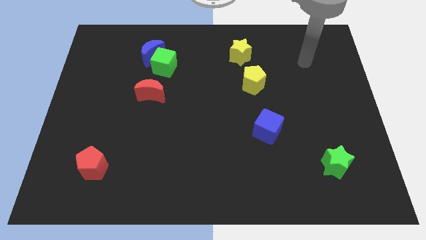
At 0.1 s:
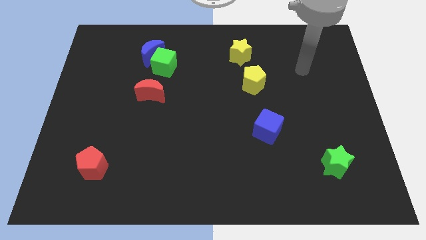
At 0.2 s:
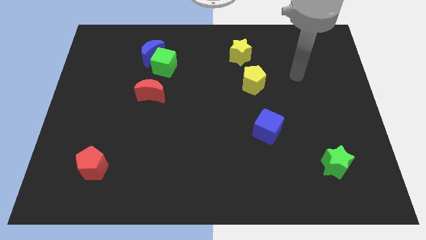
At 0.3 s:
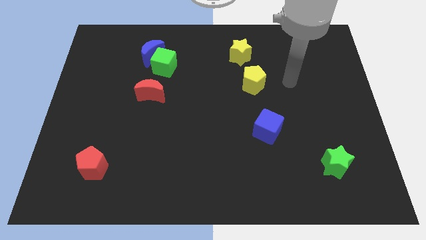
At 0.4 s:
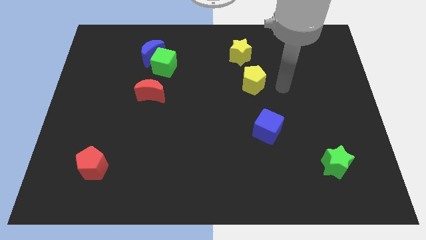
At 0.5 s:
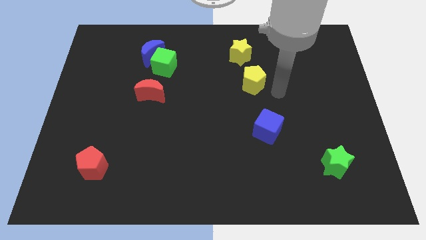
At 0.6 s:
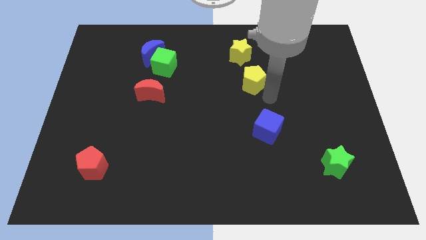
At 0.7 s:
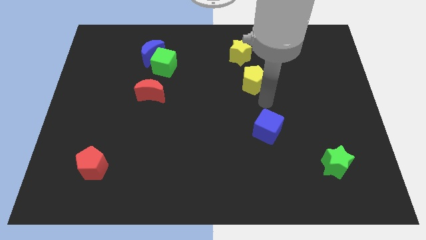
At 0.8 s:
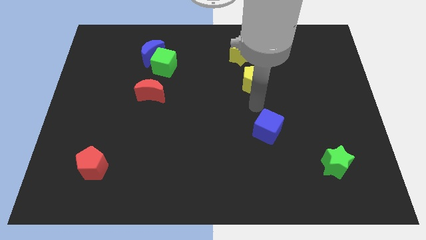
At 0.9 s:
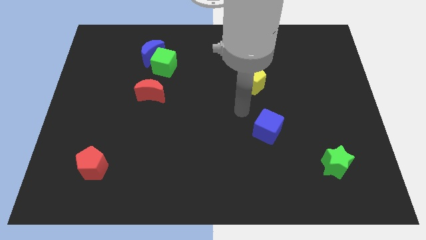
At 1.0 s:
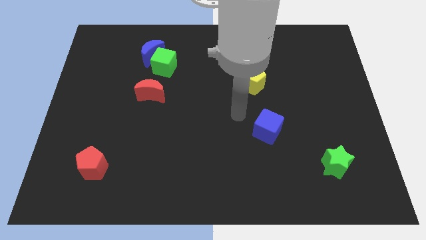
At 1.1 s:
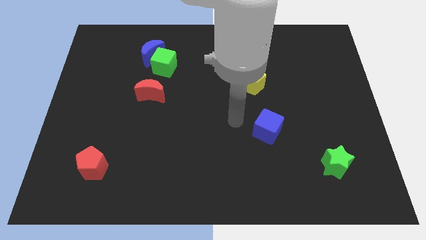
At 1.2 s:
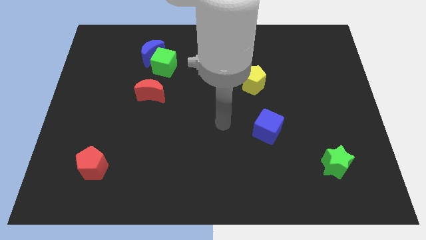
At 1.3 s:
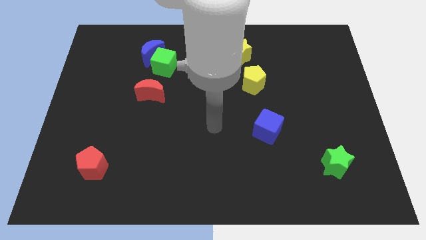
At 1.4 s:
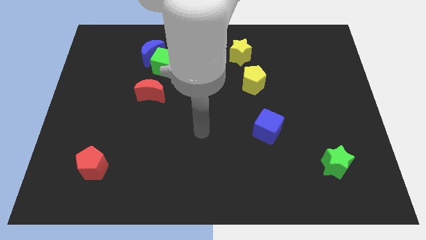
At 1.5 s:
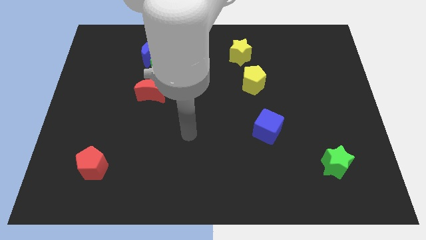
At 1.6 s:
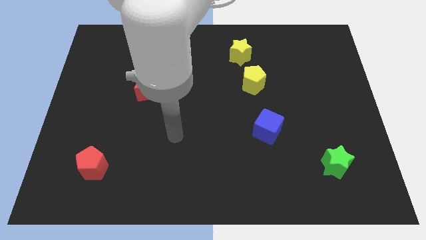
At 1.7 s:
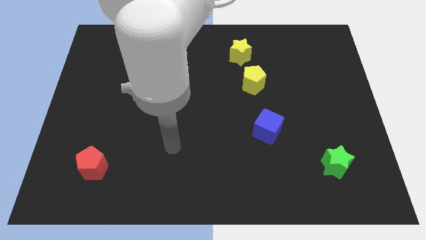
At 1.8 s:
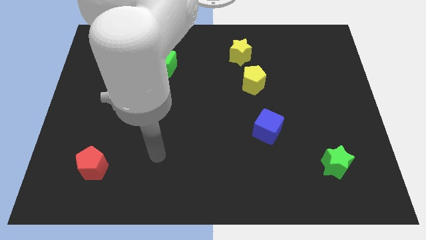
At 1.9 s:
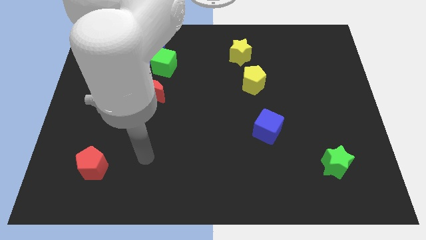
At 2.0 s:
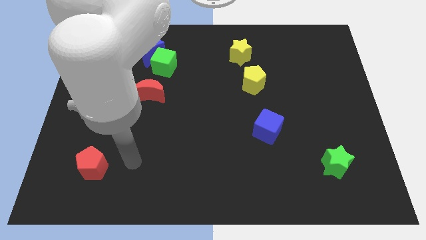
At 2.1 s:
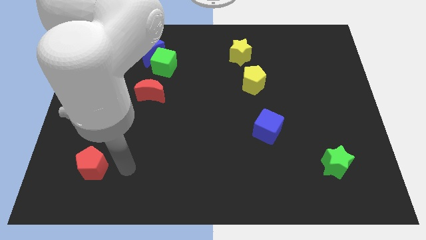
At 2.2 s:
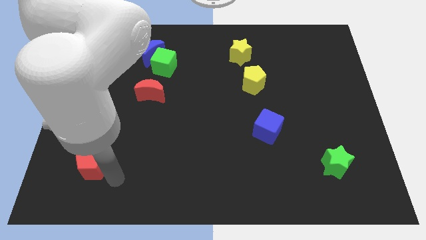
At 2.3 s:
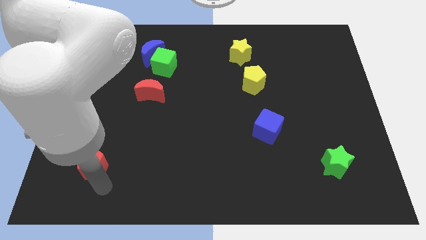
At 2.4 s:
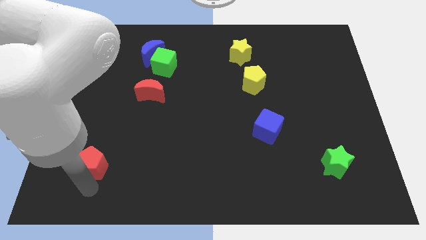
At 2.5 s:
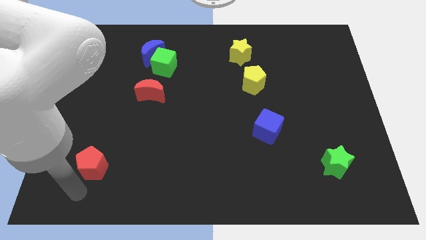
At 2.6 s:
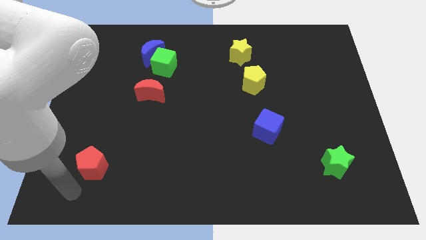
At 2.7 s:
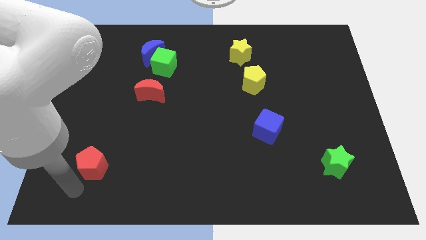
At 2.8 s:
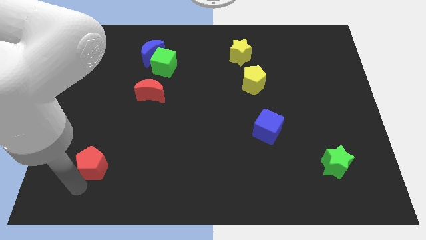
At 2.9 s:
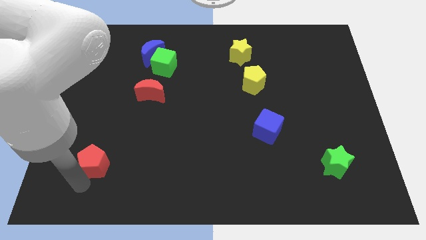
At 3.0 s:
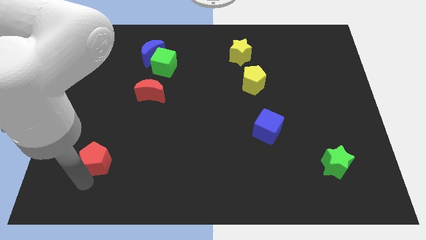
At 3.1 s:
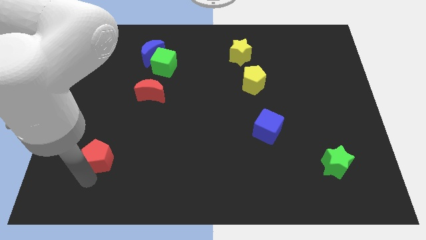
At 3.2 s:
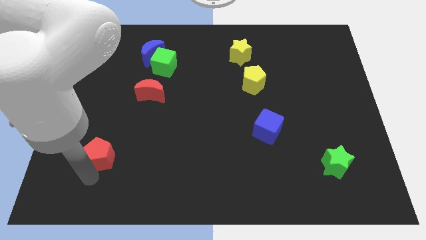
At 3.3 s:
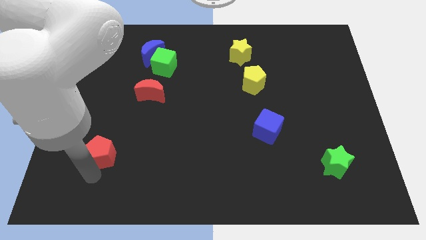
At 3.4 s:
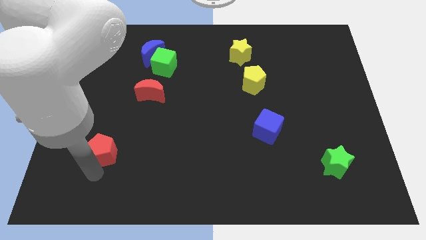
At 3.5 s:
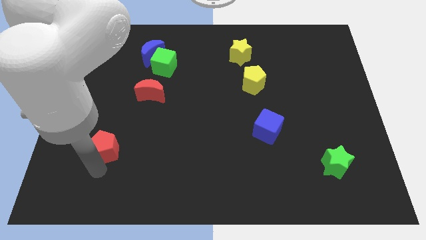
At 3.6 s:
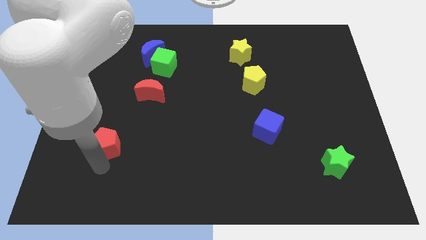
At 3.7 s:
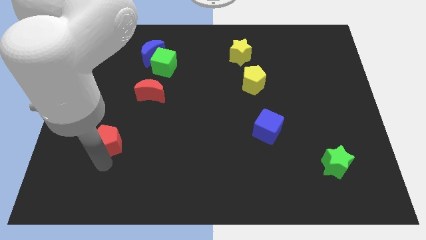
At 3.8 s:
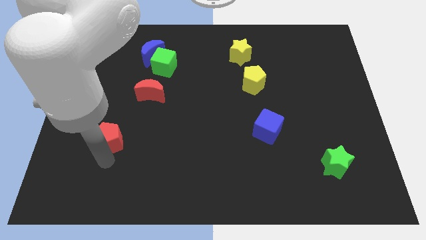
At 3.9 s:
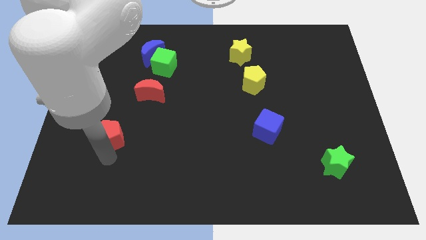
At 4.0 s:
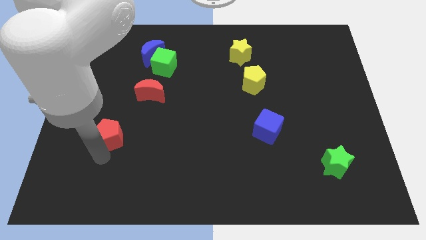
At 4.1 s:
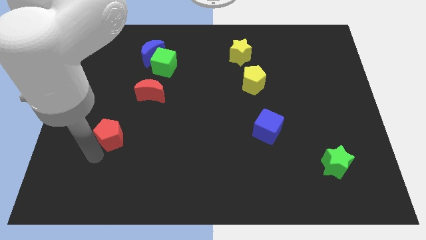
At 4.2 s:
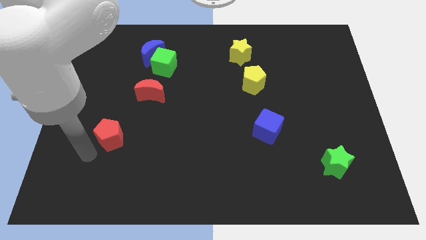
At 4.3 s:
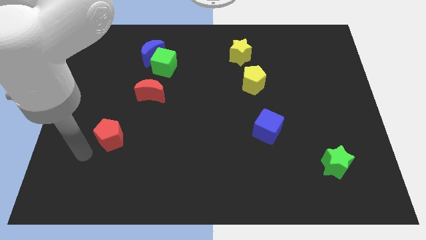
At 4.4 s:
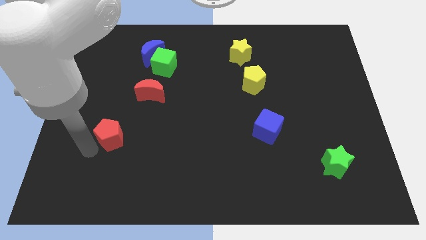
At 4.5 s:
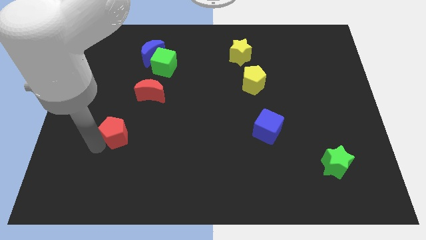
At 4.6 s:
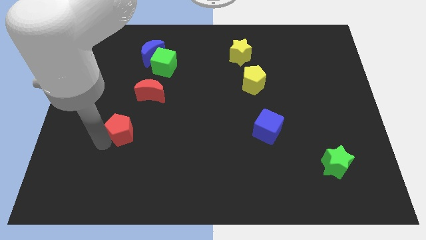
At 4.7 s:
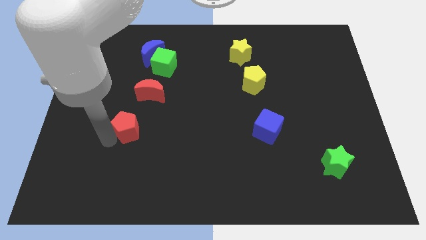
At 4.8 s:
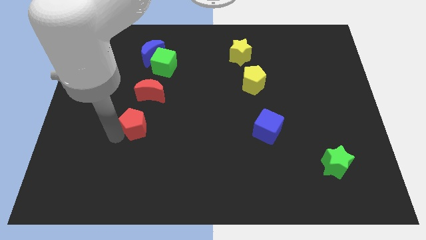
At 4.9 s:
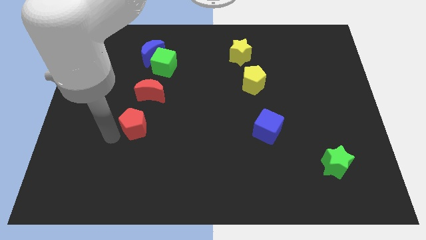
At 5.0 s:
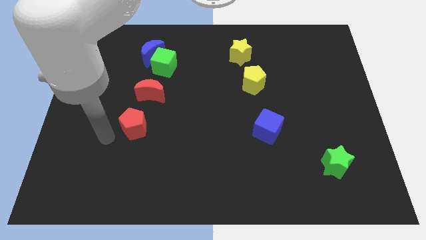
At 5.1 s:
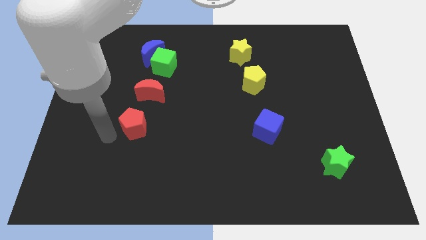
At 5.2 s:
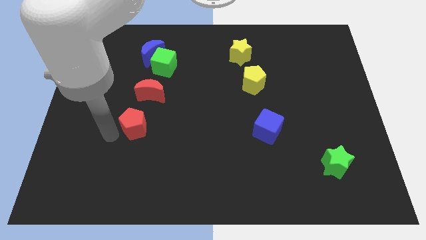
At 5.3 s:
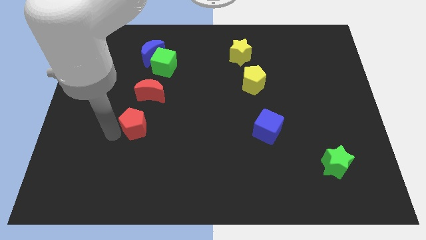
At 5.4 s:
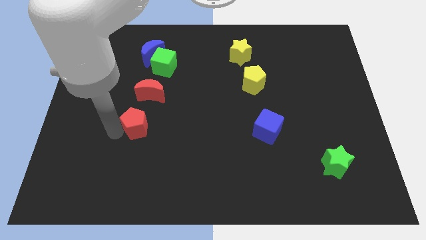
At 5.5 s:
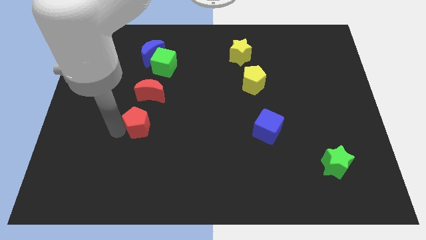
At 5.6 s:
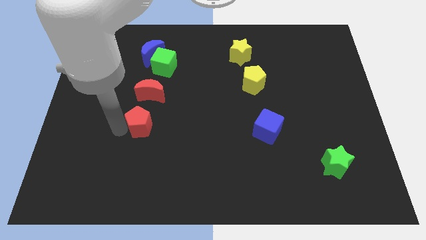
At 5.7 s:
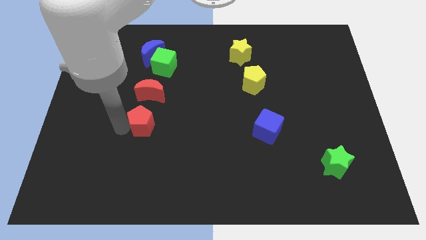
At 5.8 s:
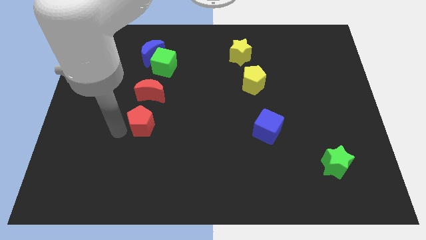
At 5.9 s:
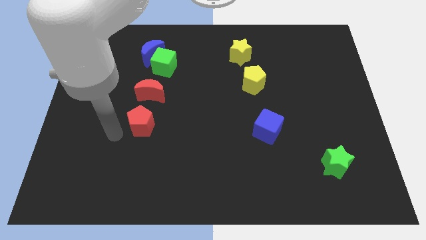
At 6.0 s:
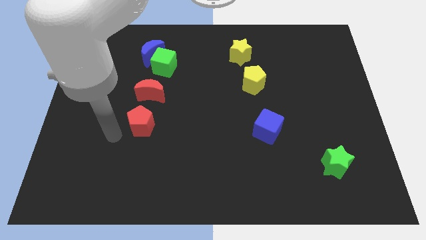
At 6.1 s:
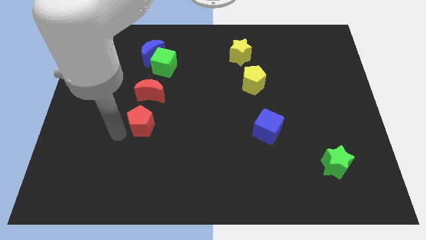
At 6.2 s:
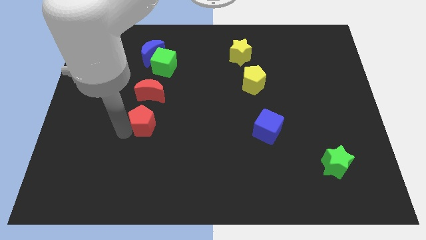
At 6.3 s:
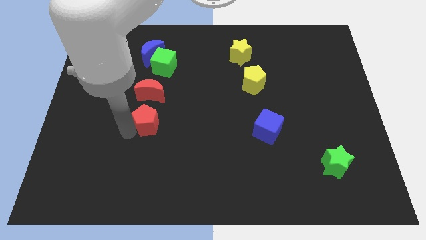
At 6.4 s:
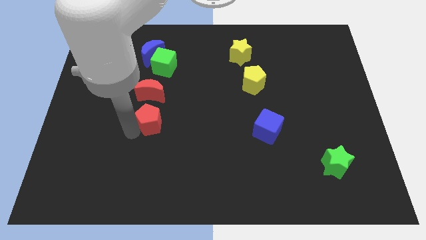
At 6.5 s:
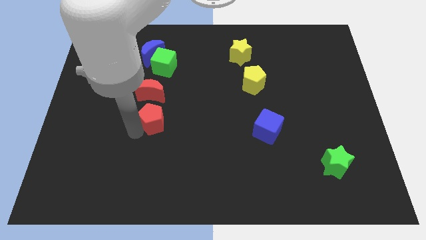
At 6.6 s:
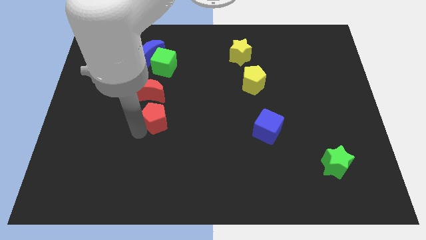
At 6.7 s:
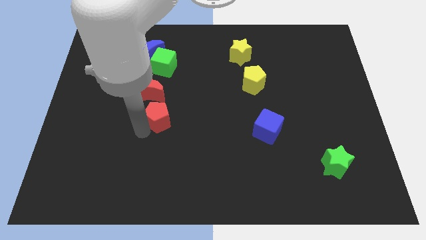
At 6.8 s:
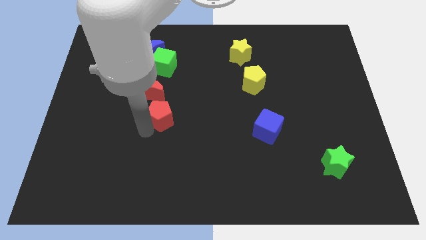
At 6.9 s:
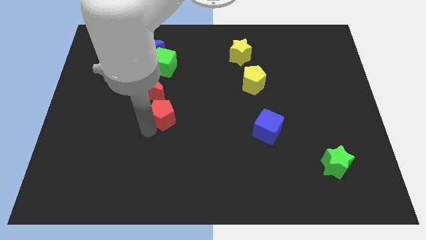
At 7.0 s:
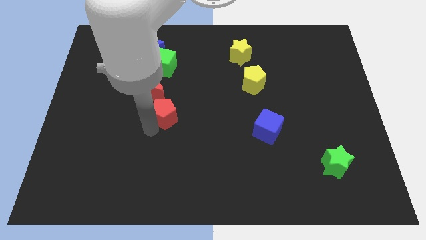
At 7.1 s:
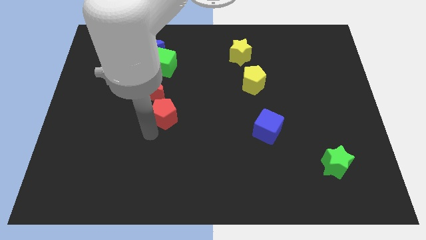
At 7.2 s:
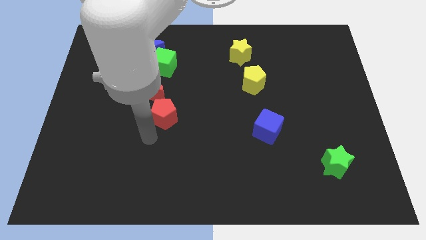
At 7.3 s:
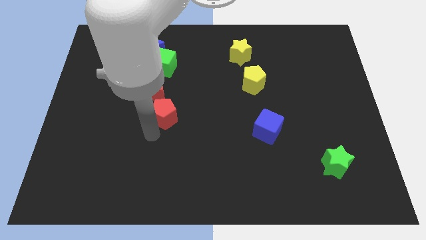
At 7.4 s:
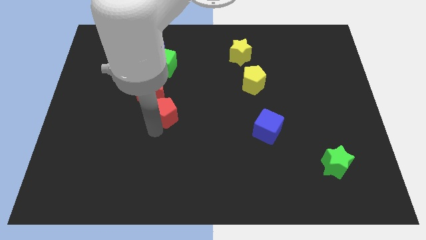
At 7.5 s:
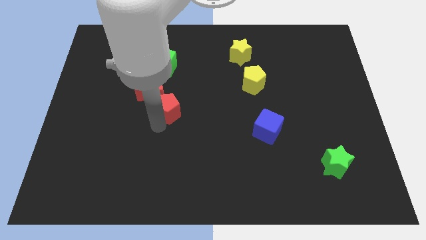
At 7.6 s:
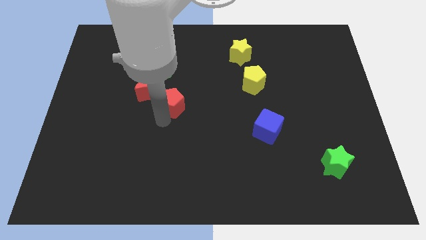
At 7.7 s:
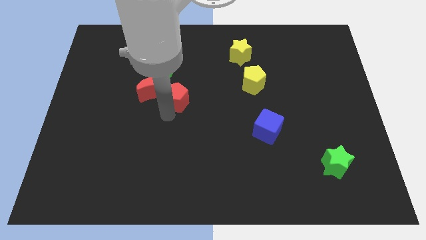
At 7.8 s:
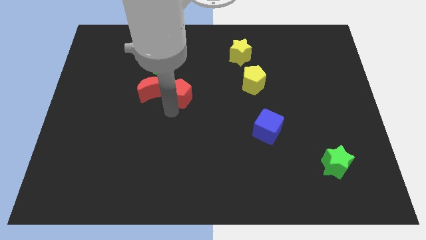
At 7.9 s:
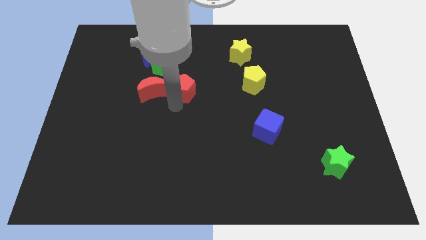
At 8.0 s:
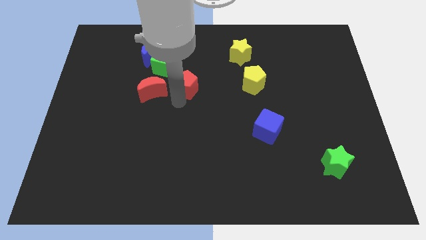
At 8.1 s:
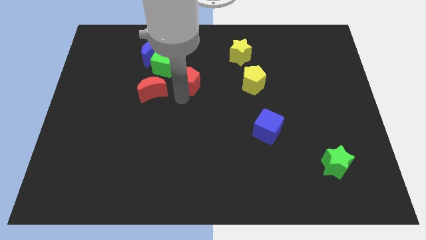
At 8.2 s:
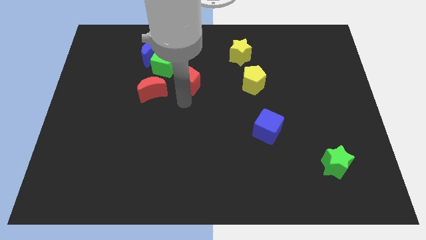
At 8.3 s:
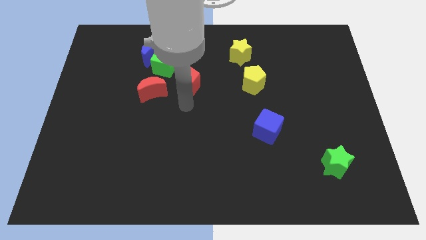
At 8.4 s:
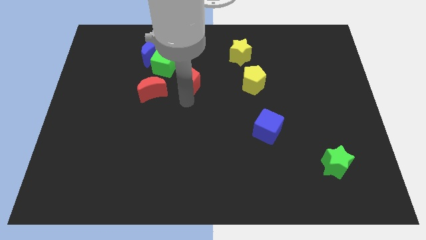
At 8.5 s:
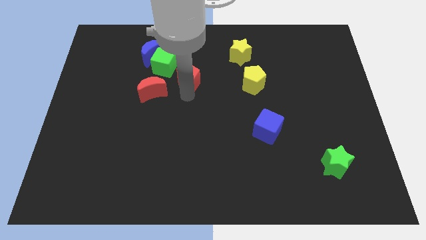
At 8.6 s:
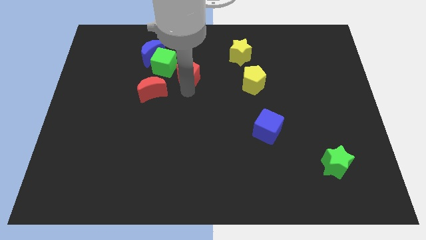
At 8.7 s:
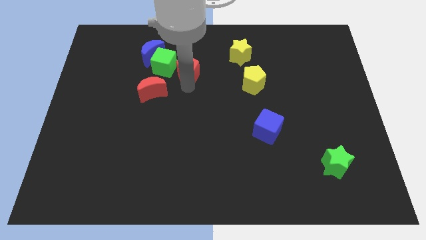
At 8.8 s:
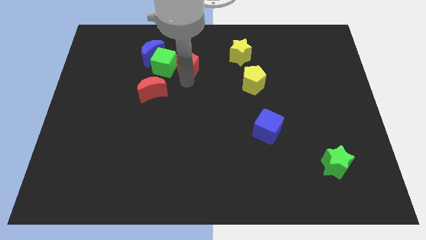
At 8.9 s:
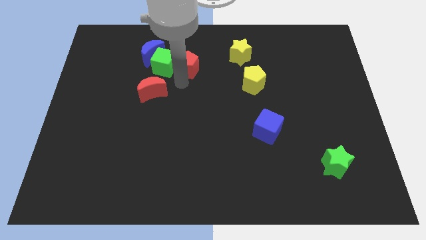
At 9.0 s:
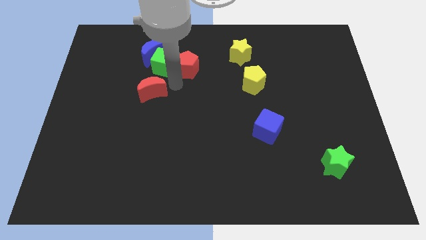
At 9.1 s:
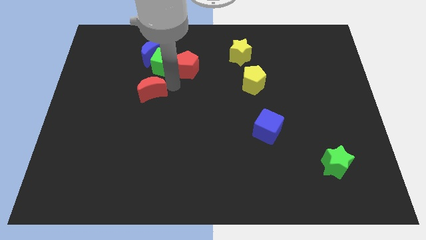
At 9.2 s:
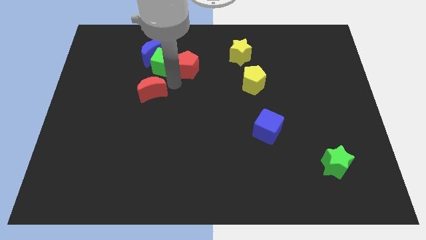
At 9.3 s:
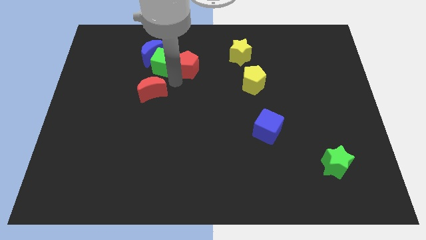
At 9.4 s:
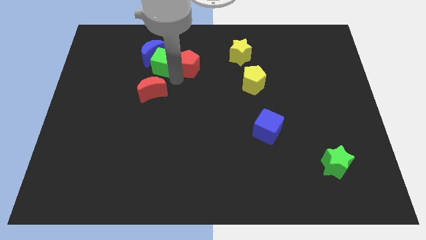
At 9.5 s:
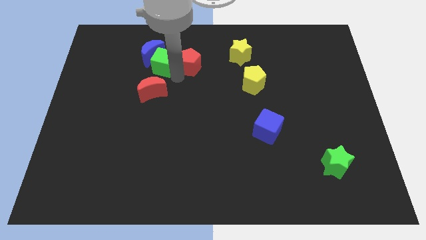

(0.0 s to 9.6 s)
put the red pentagon to the left side of the yellow star
